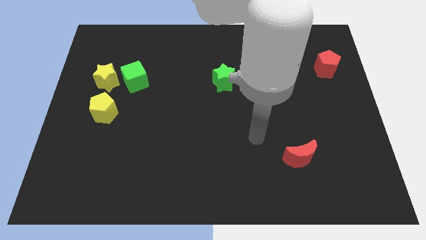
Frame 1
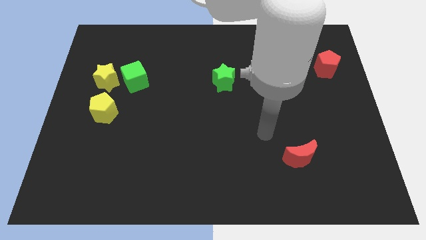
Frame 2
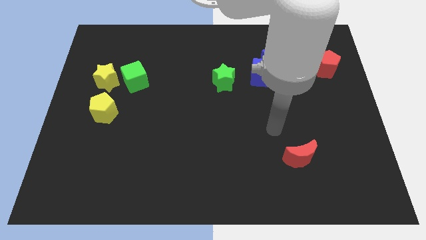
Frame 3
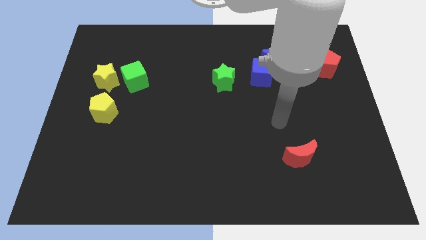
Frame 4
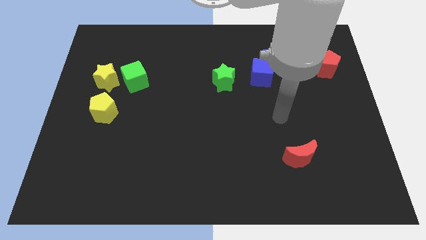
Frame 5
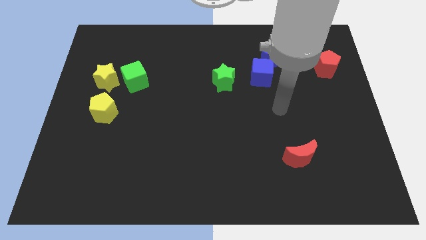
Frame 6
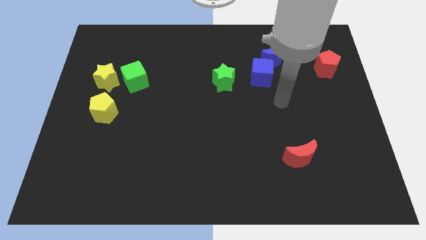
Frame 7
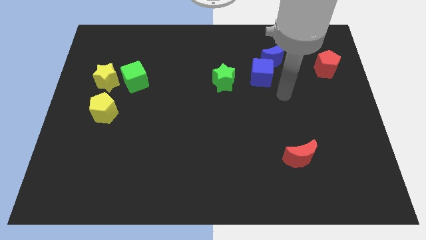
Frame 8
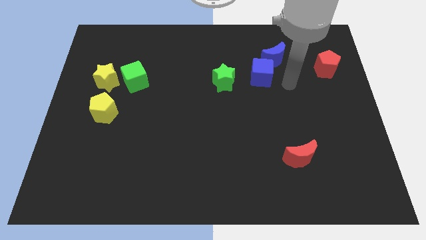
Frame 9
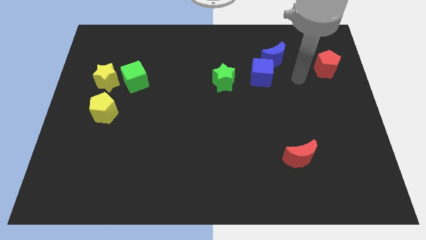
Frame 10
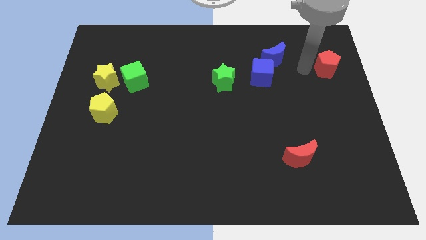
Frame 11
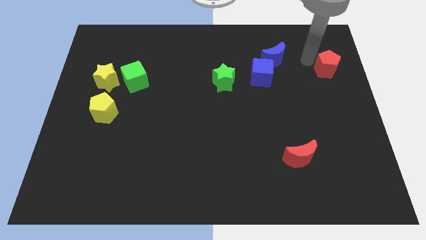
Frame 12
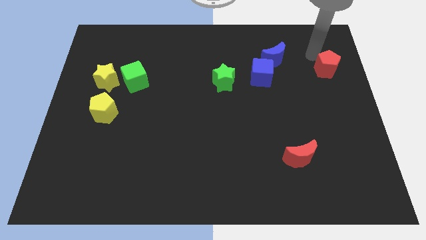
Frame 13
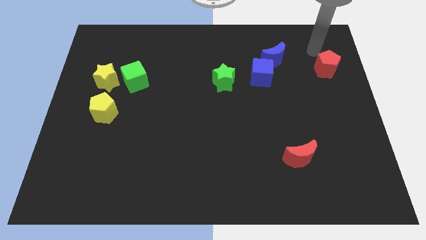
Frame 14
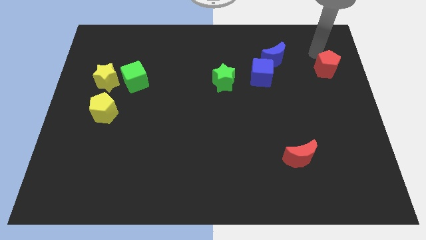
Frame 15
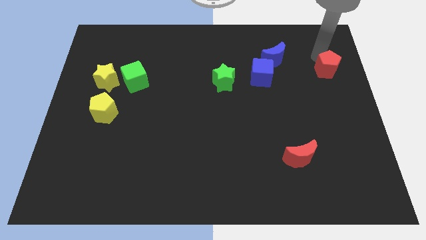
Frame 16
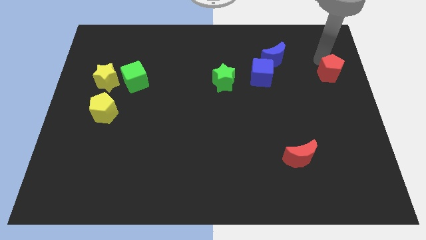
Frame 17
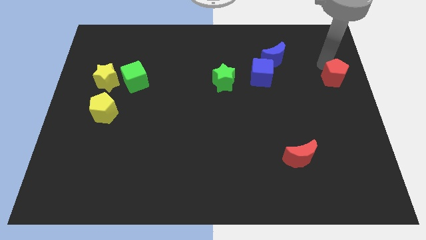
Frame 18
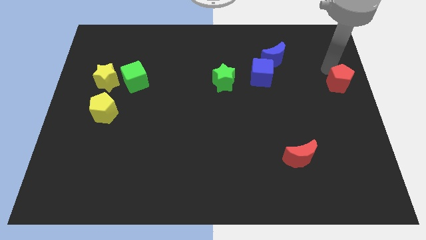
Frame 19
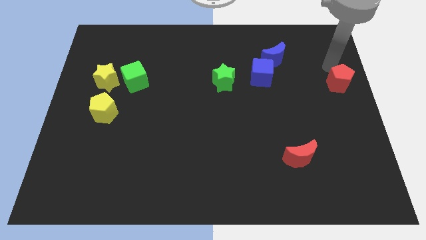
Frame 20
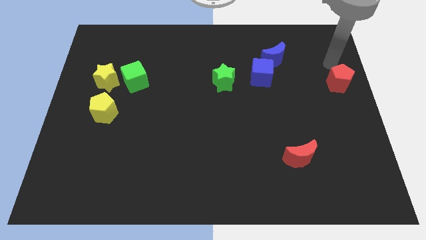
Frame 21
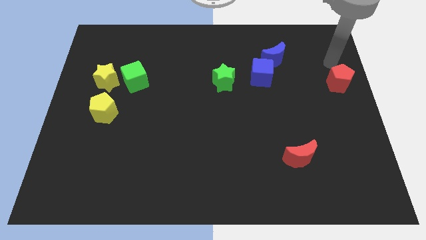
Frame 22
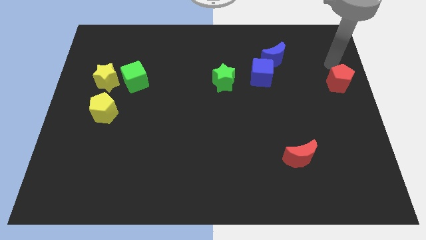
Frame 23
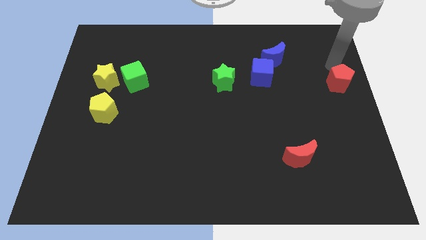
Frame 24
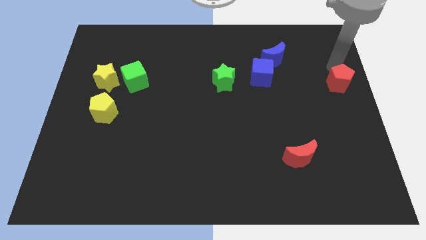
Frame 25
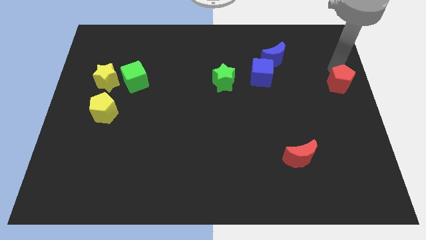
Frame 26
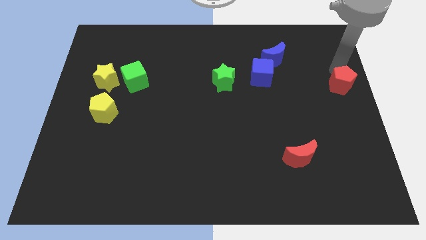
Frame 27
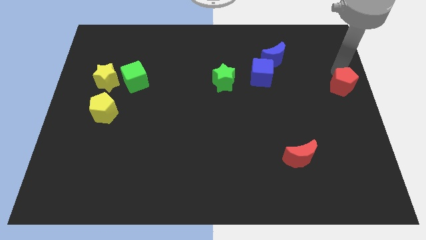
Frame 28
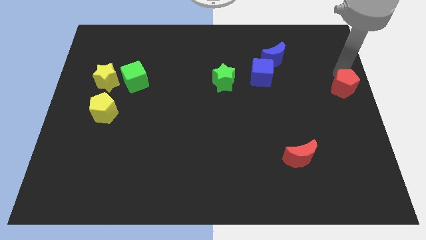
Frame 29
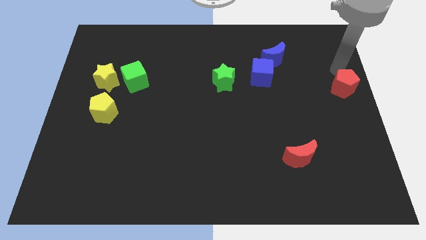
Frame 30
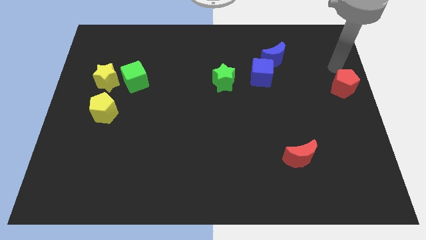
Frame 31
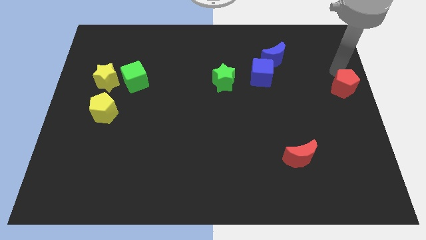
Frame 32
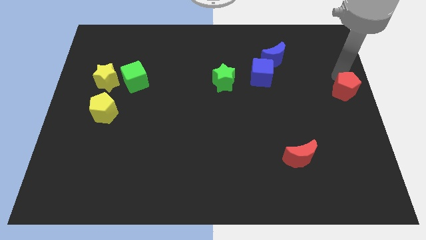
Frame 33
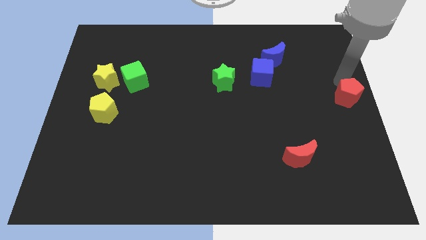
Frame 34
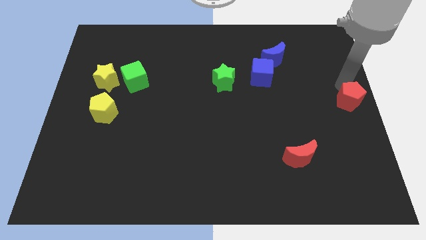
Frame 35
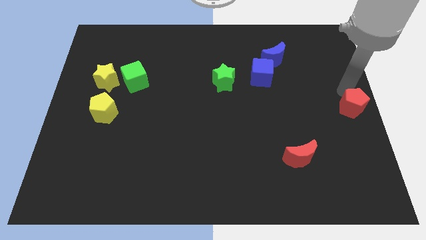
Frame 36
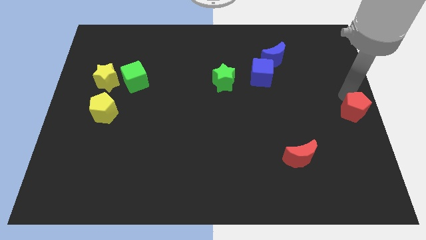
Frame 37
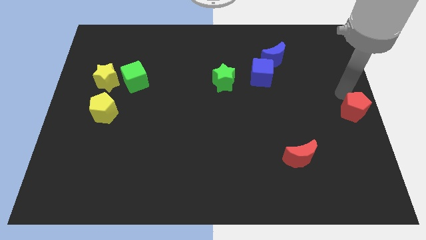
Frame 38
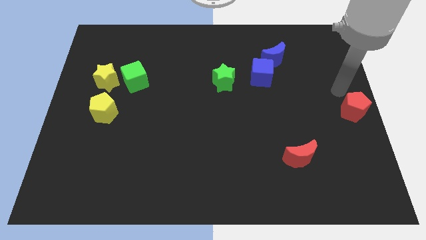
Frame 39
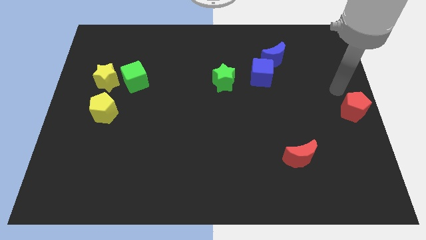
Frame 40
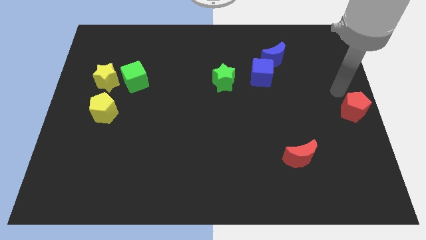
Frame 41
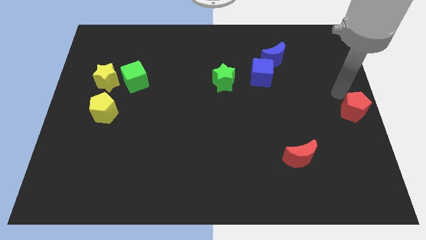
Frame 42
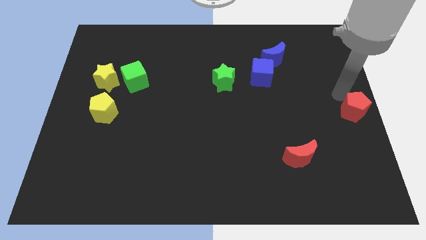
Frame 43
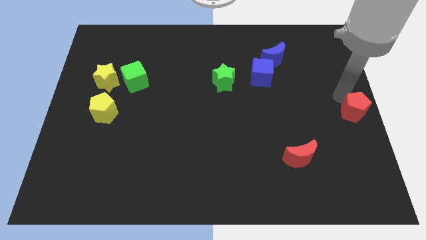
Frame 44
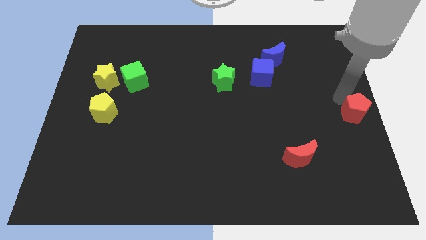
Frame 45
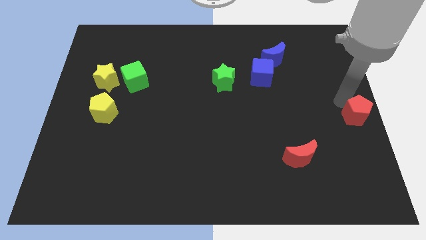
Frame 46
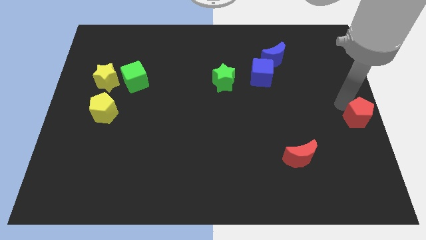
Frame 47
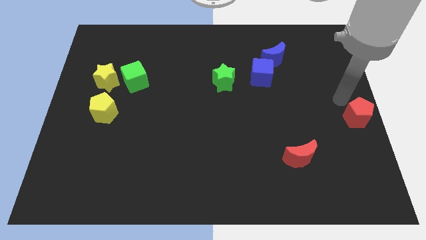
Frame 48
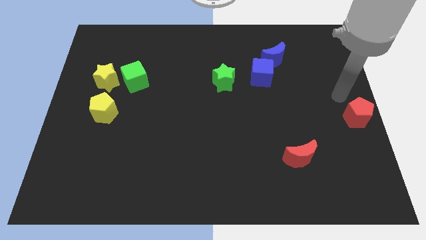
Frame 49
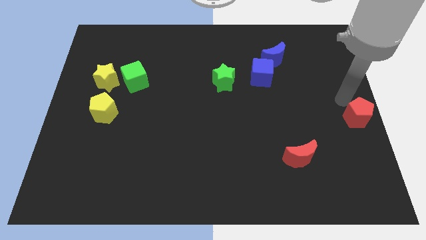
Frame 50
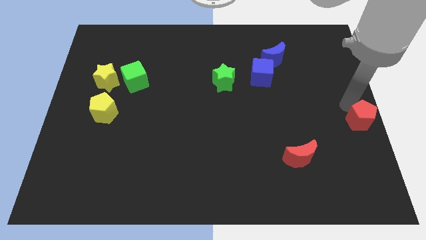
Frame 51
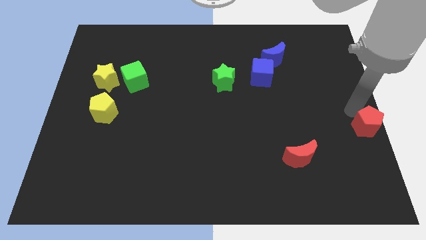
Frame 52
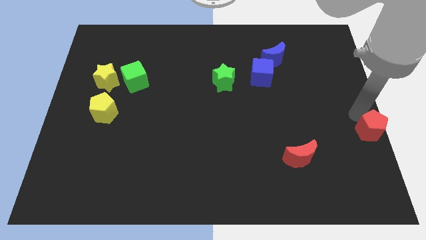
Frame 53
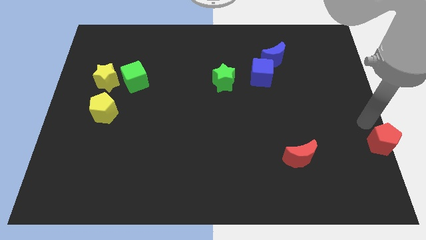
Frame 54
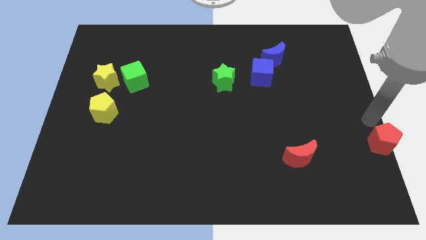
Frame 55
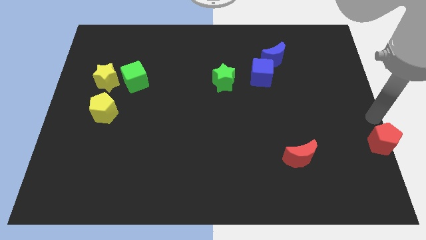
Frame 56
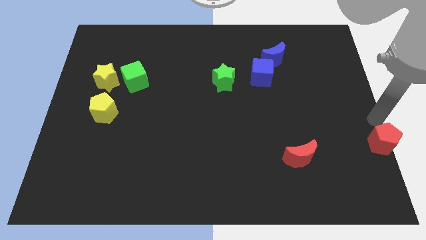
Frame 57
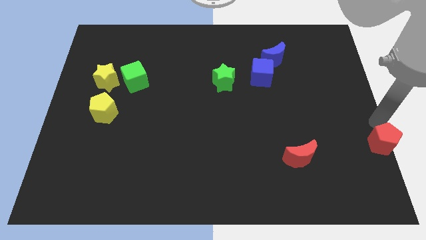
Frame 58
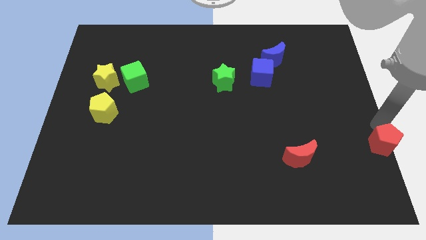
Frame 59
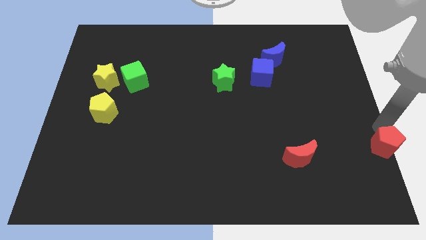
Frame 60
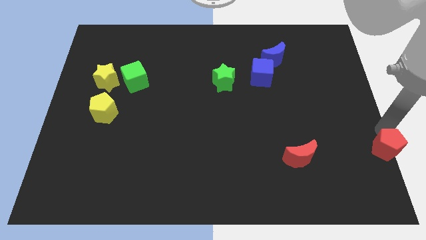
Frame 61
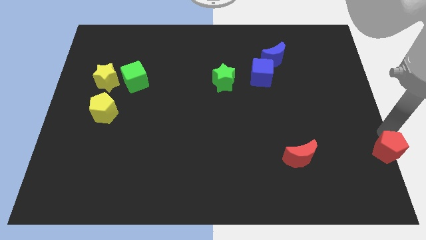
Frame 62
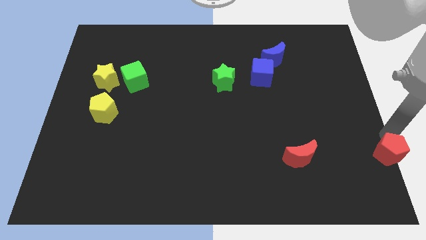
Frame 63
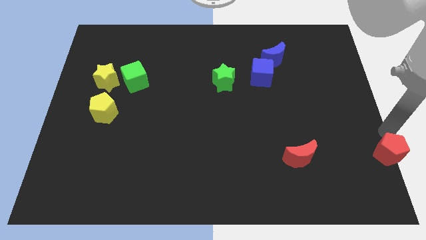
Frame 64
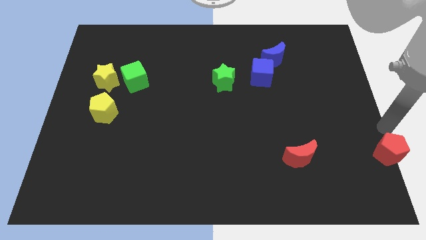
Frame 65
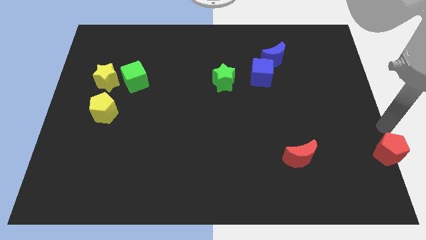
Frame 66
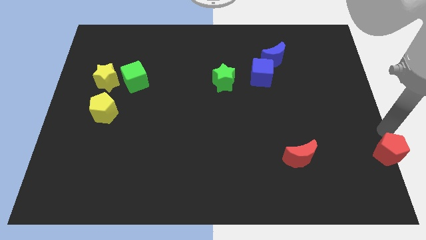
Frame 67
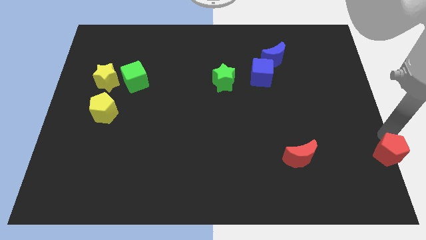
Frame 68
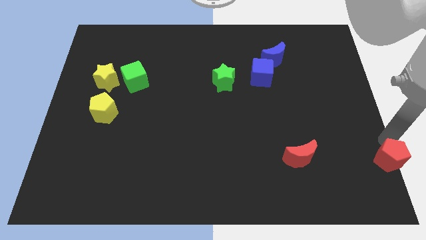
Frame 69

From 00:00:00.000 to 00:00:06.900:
slide the red pentagon to the bottom right corner
